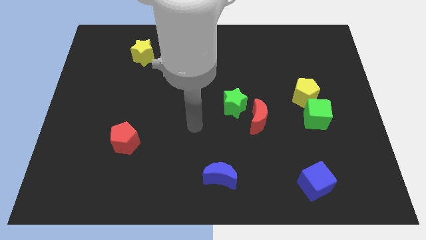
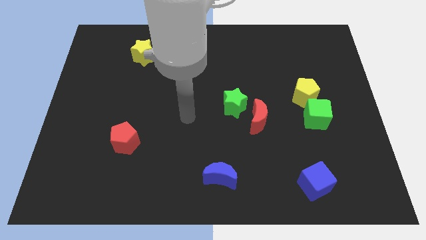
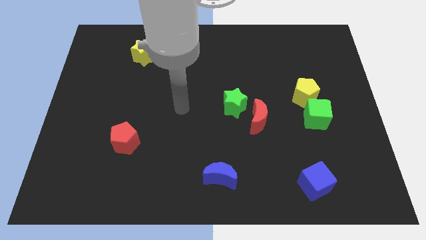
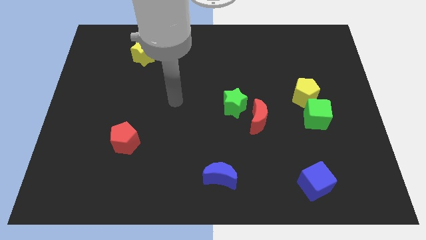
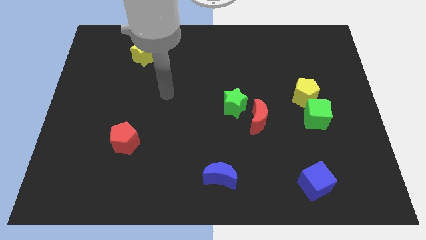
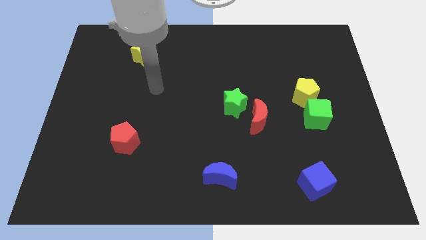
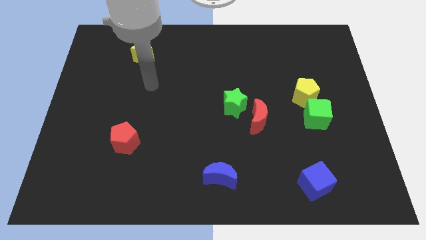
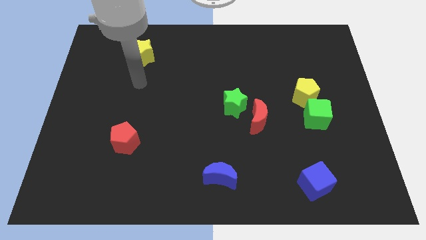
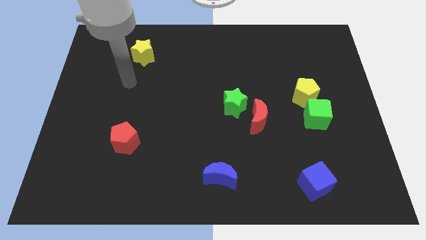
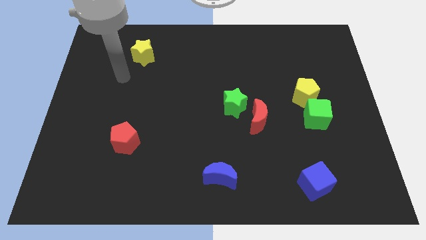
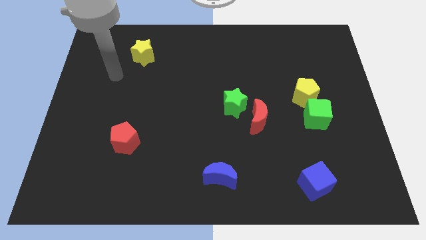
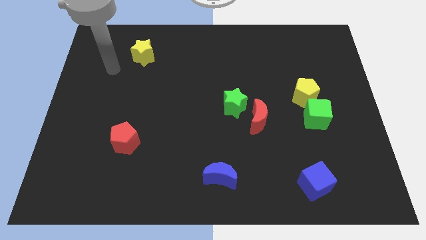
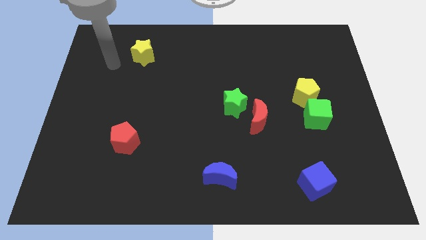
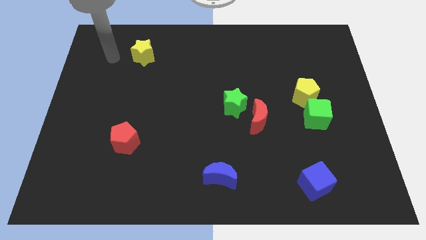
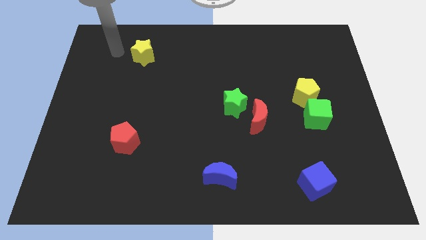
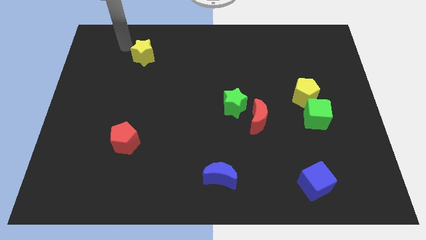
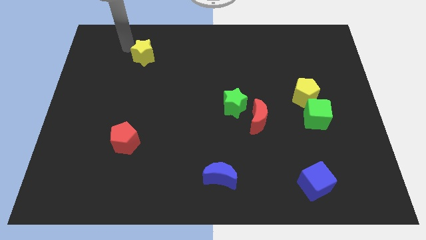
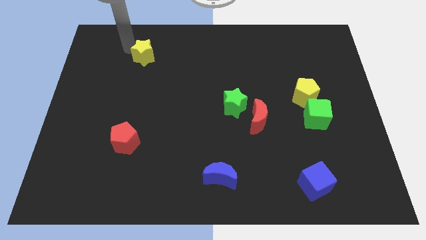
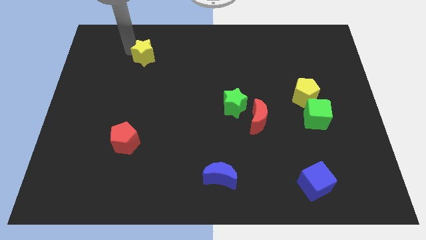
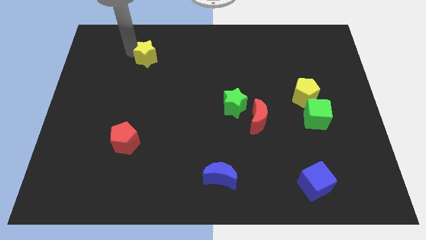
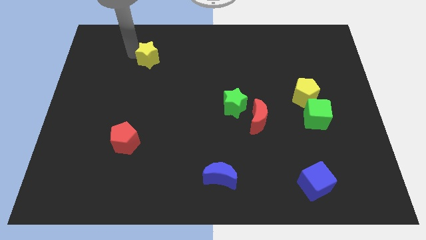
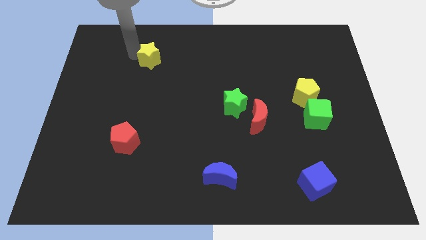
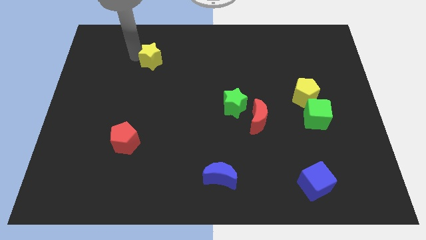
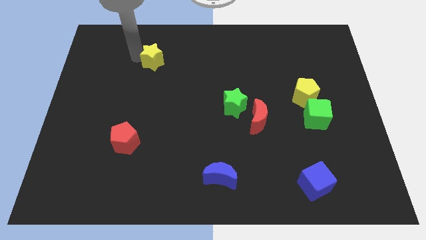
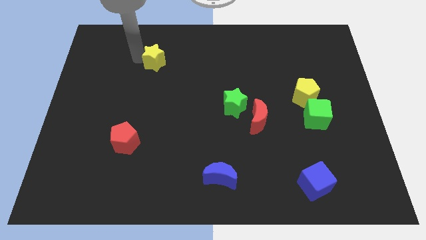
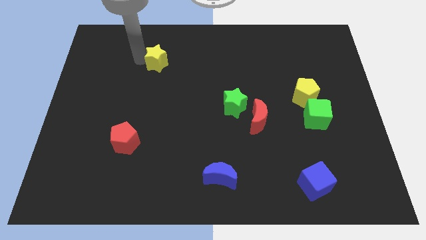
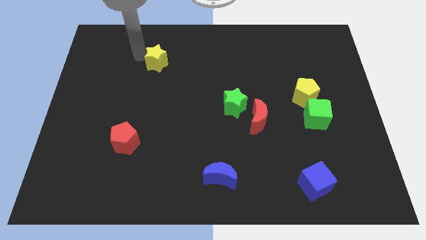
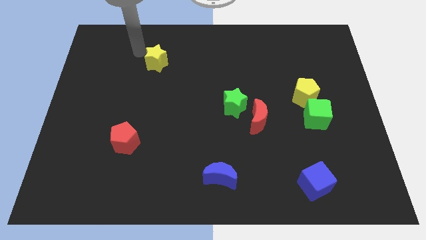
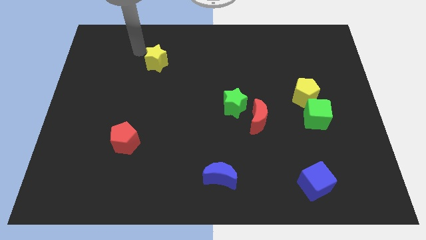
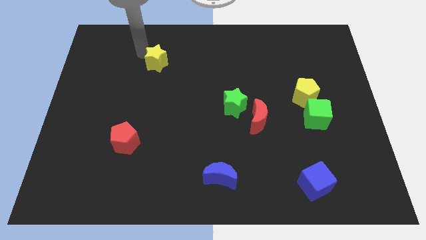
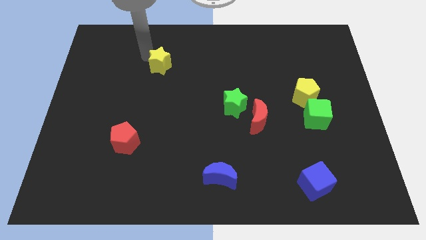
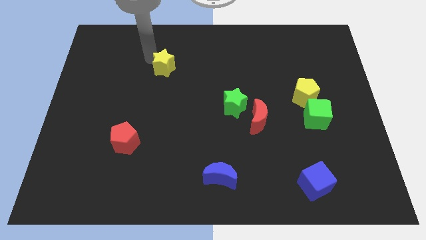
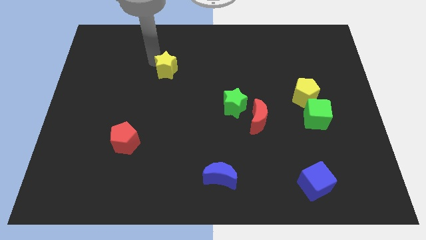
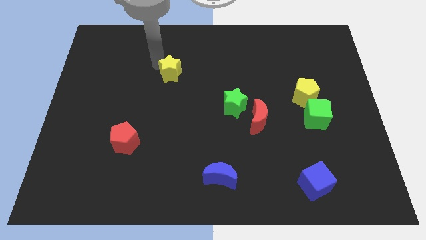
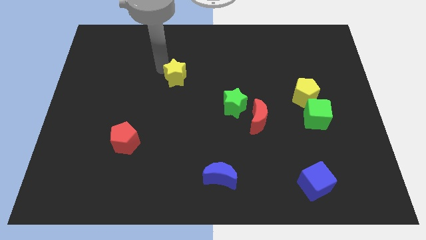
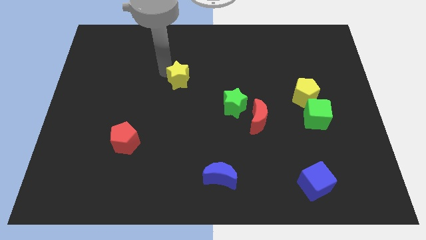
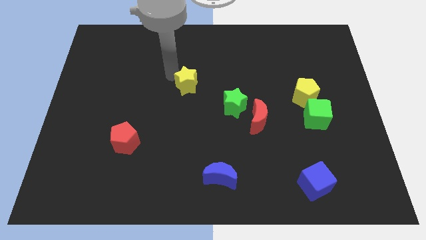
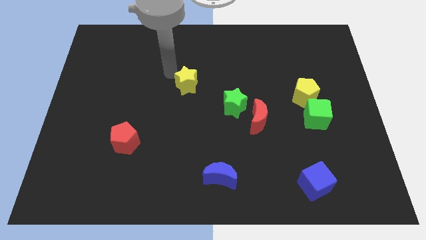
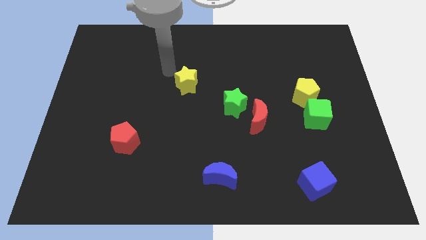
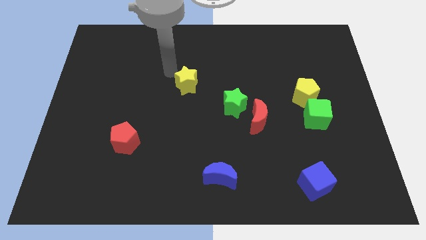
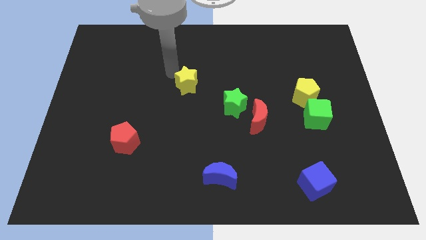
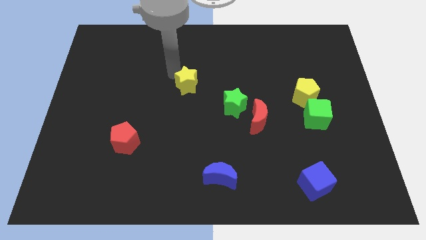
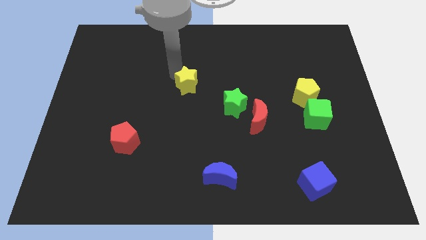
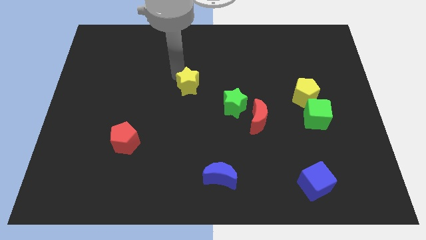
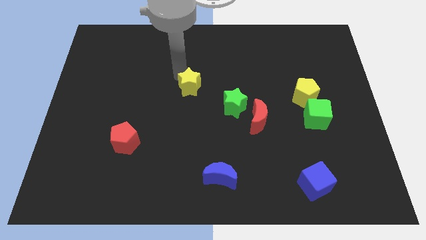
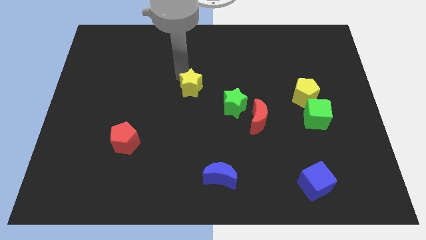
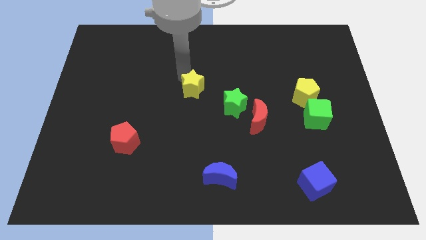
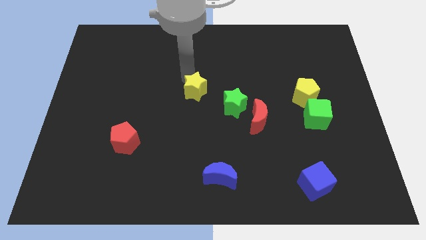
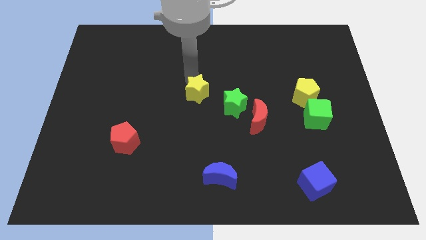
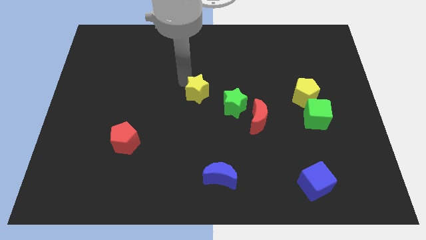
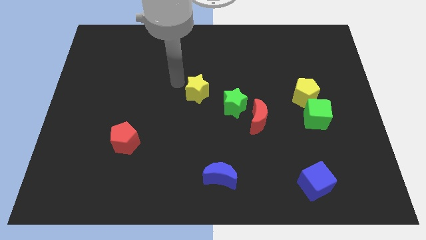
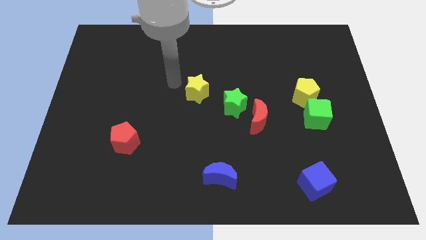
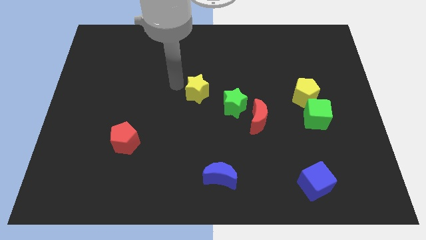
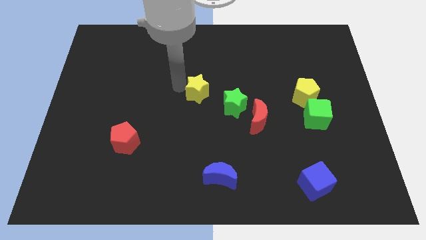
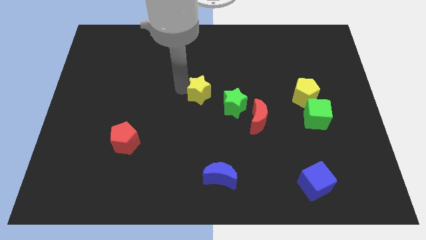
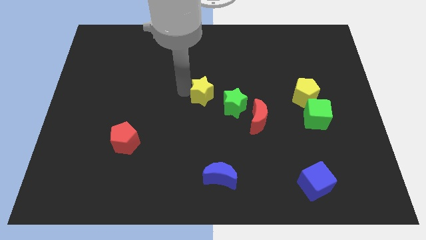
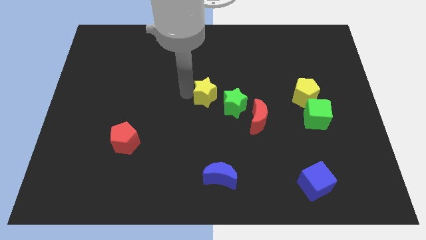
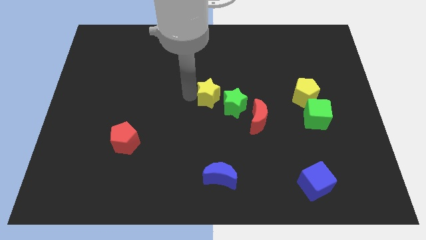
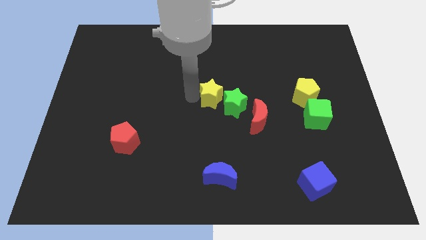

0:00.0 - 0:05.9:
push the yellow star next to the green star

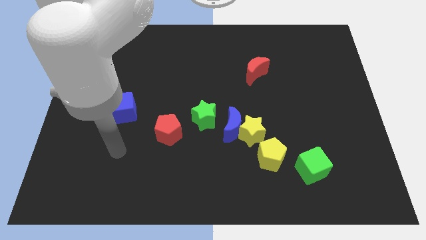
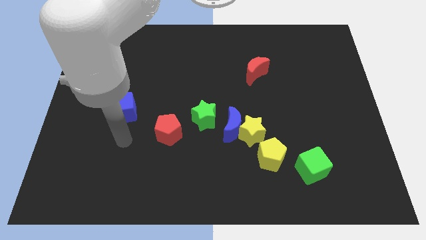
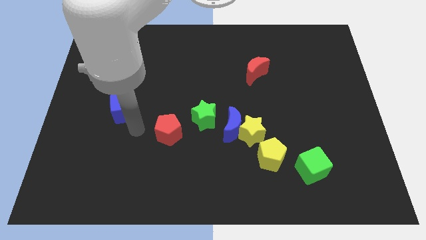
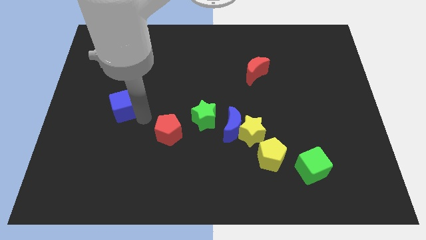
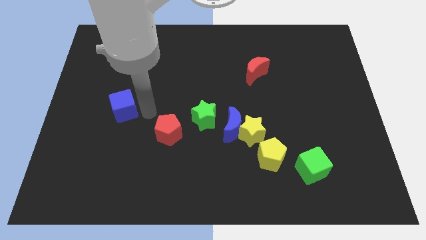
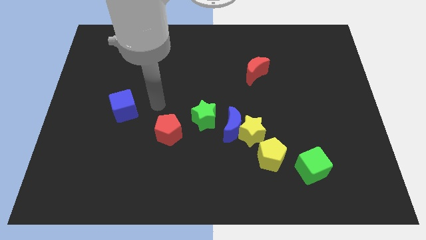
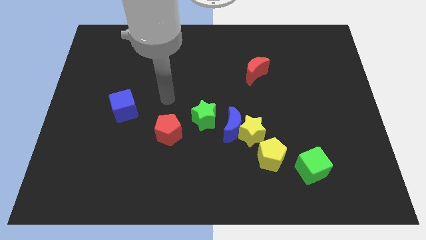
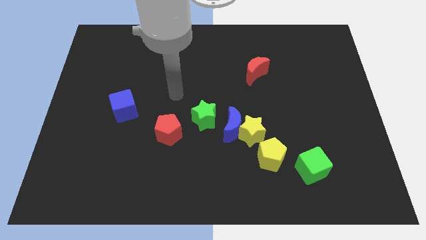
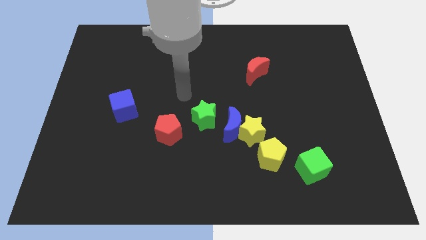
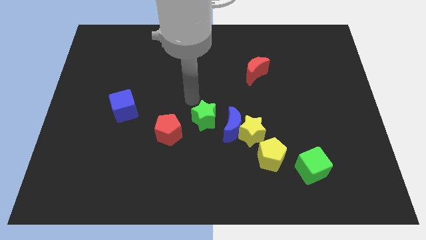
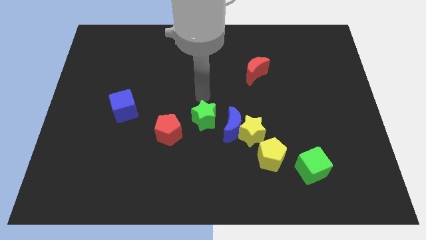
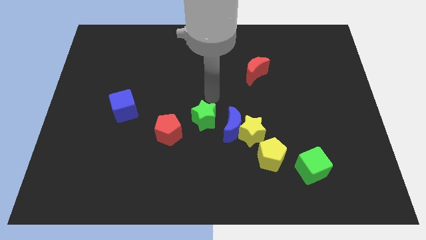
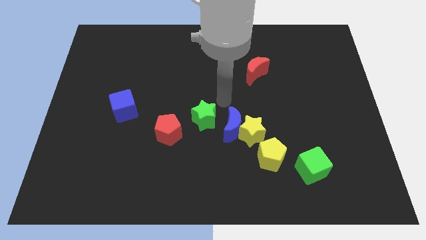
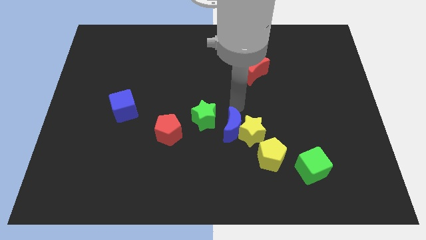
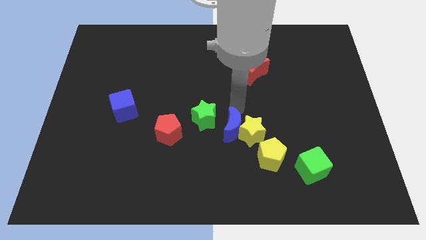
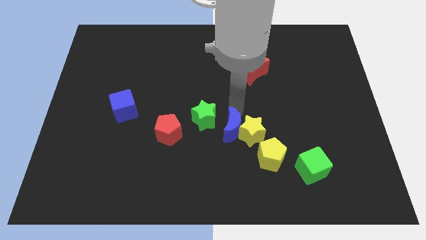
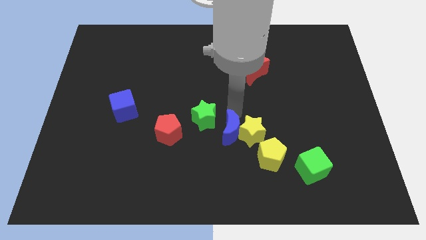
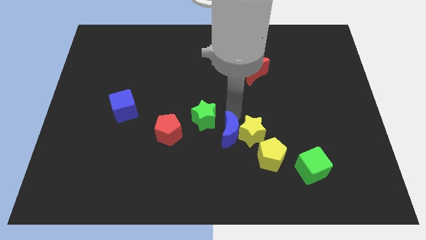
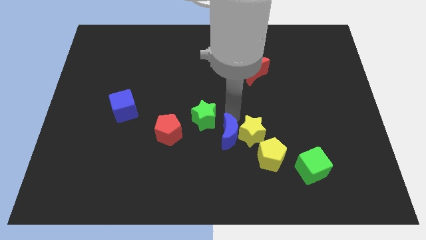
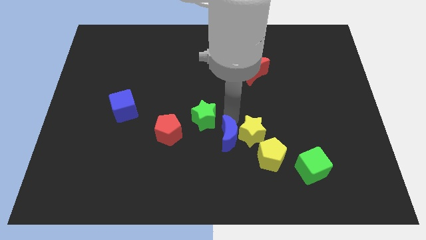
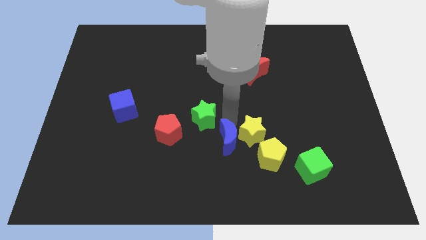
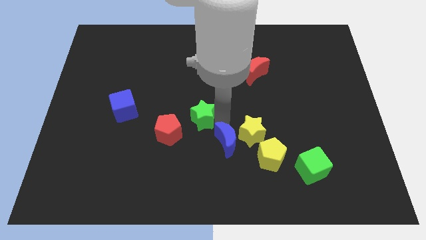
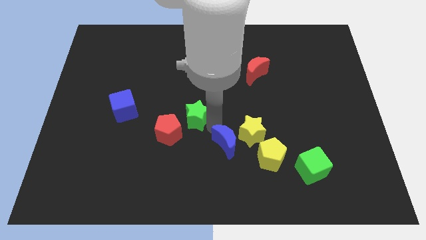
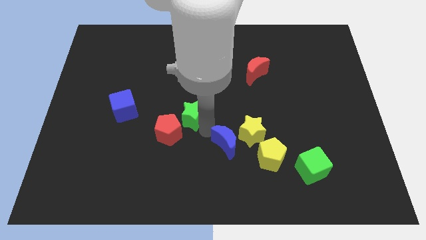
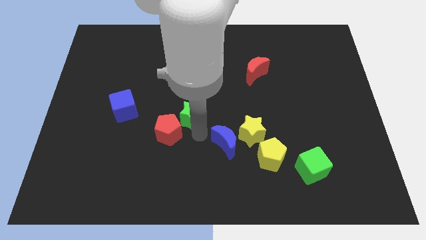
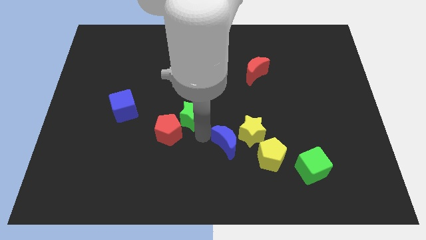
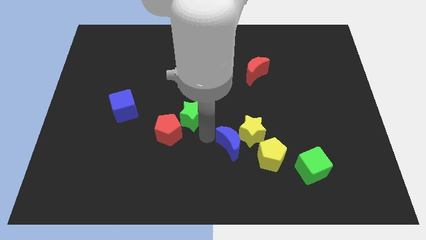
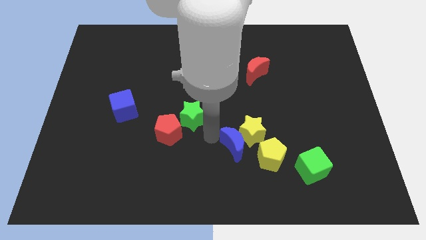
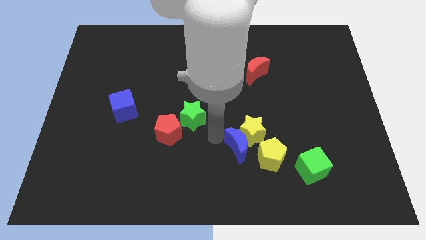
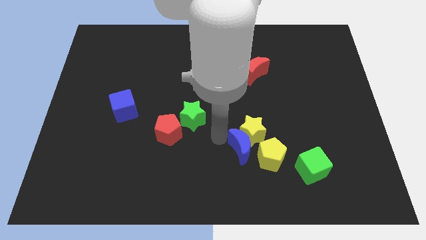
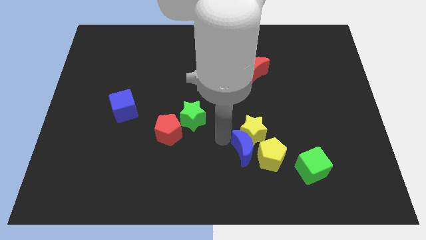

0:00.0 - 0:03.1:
move the blue moon towards the yellow pentagon
